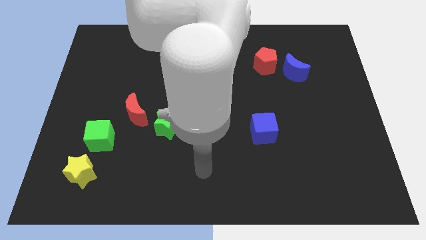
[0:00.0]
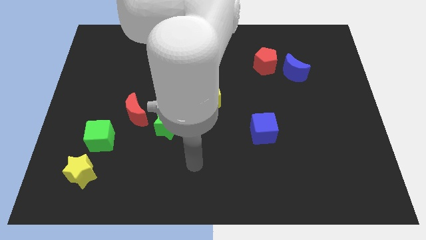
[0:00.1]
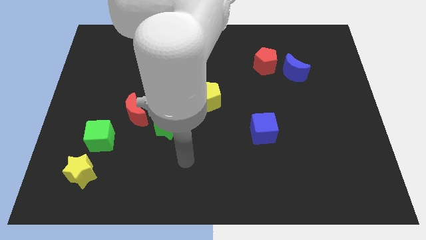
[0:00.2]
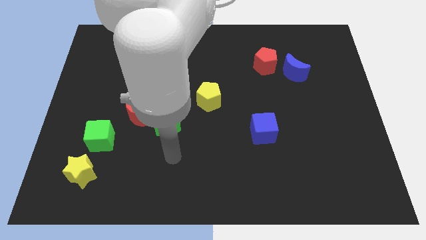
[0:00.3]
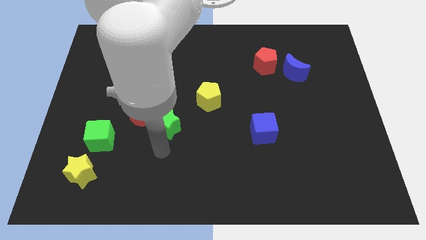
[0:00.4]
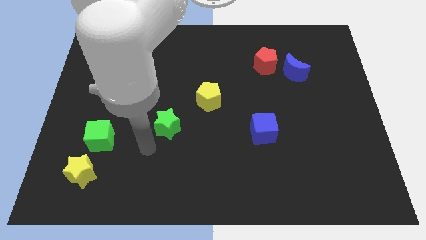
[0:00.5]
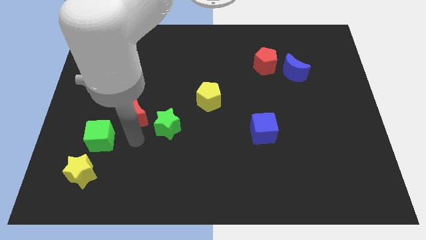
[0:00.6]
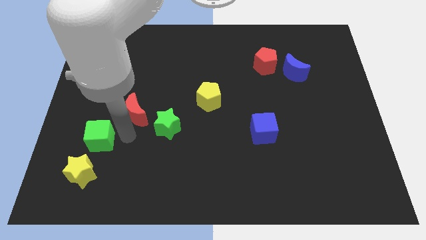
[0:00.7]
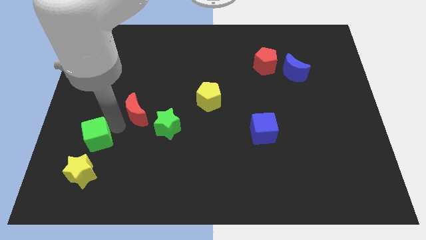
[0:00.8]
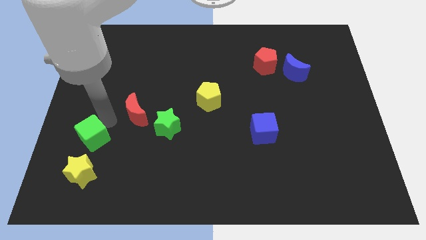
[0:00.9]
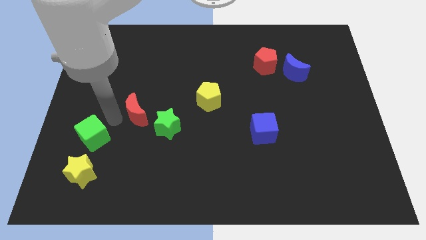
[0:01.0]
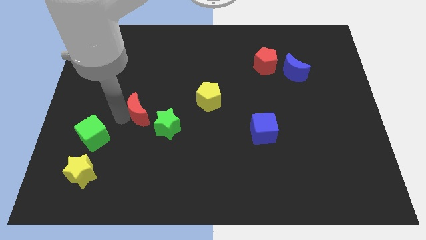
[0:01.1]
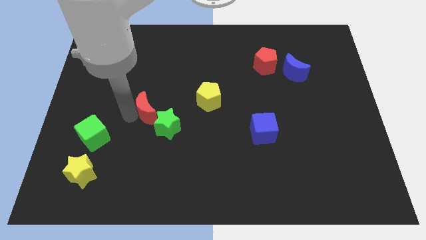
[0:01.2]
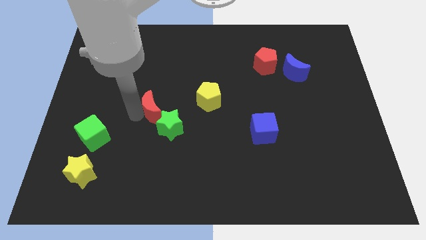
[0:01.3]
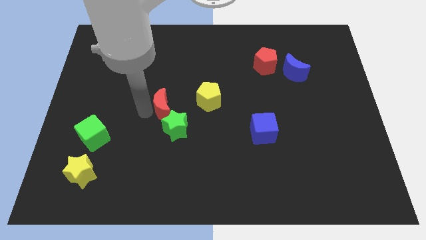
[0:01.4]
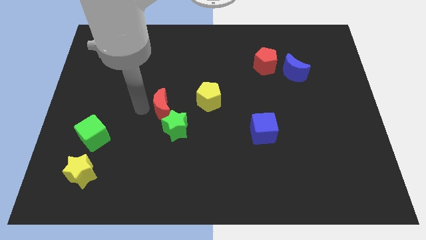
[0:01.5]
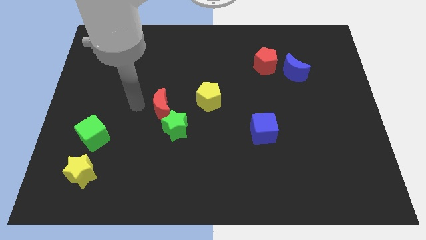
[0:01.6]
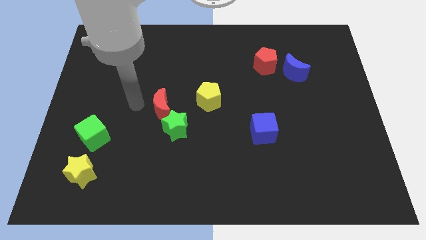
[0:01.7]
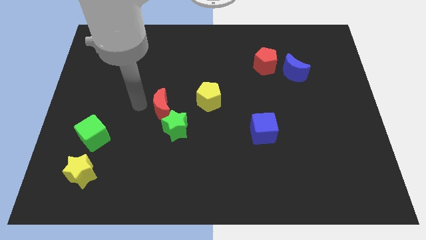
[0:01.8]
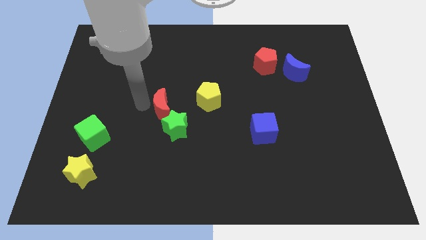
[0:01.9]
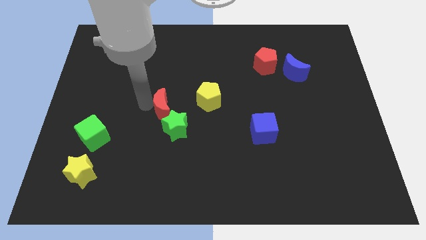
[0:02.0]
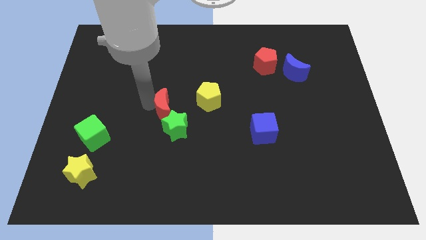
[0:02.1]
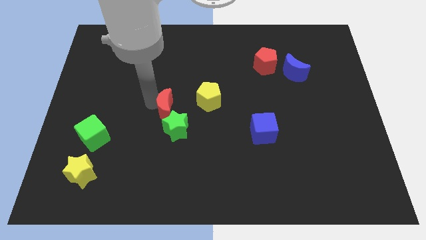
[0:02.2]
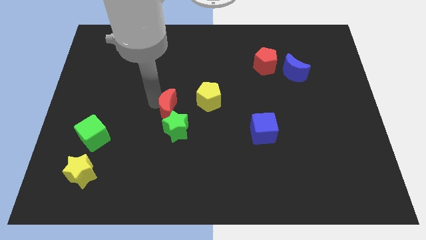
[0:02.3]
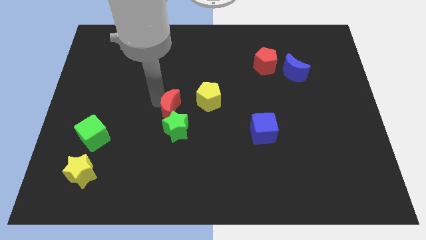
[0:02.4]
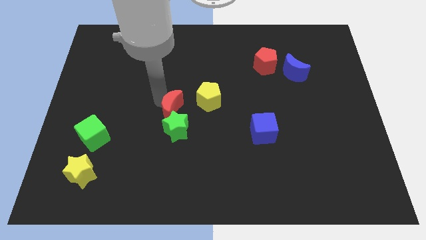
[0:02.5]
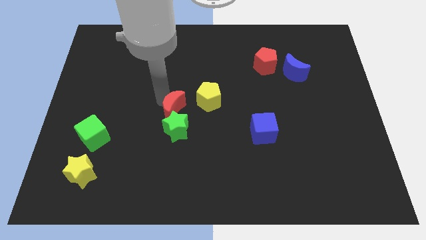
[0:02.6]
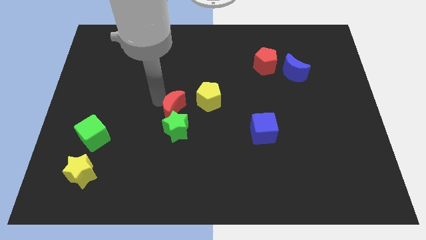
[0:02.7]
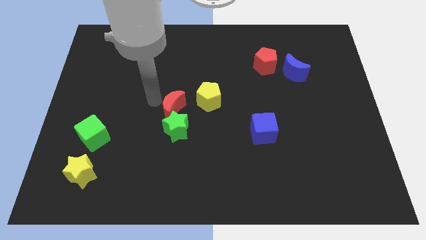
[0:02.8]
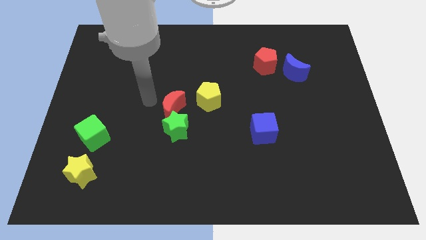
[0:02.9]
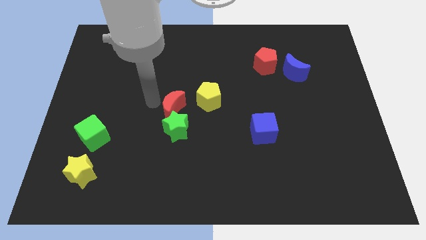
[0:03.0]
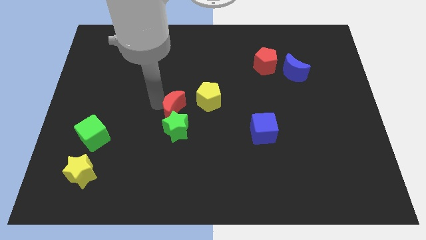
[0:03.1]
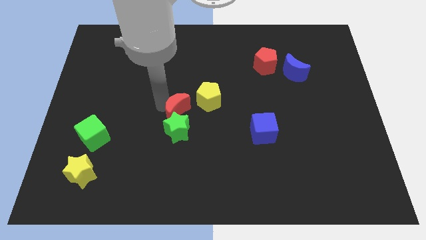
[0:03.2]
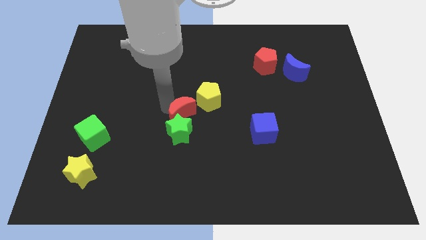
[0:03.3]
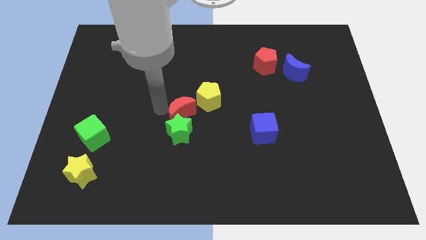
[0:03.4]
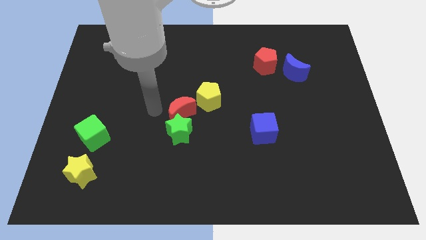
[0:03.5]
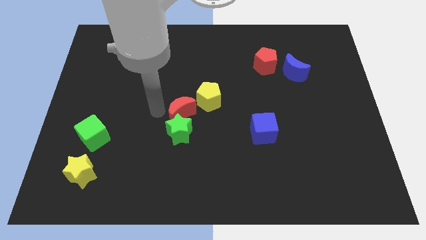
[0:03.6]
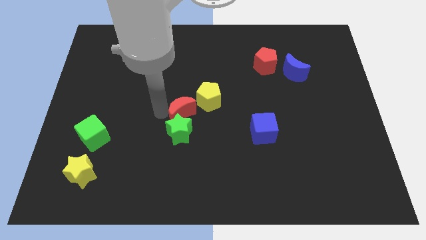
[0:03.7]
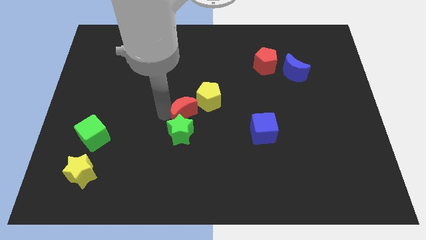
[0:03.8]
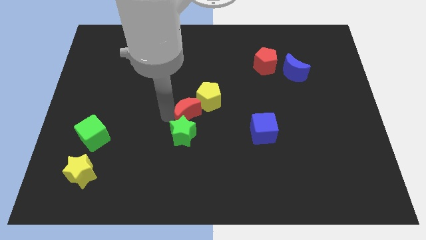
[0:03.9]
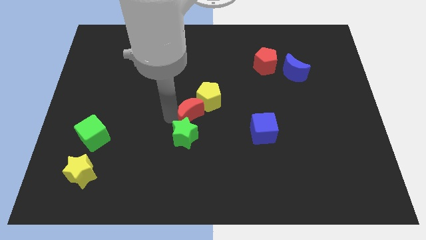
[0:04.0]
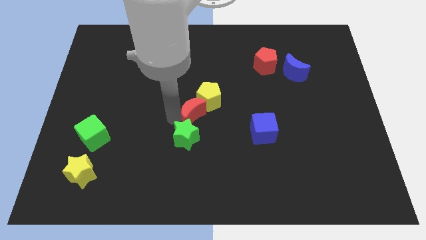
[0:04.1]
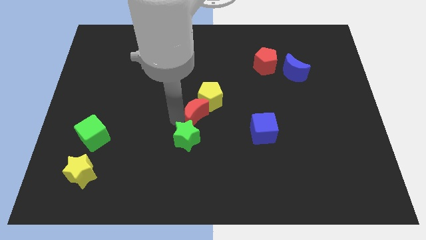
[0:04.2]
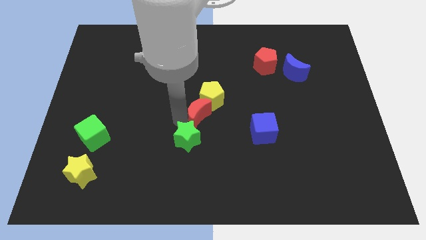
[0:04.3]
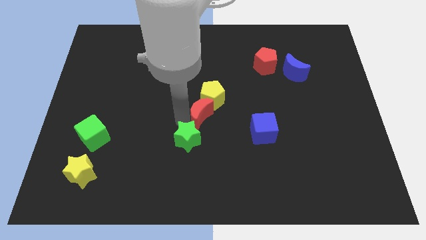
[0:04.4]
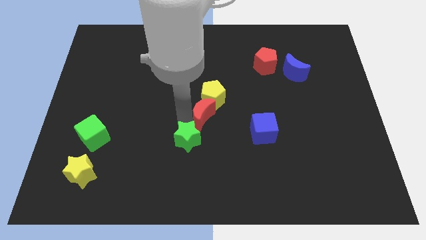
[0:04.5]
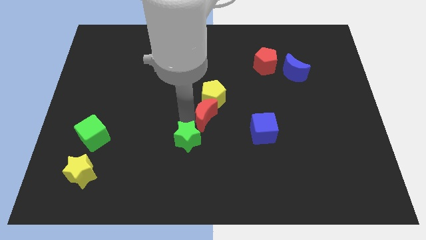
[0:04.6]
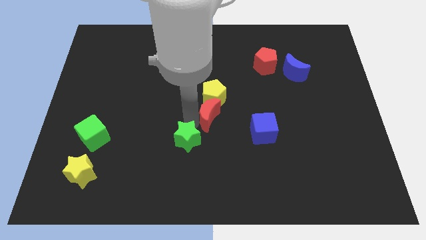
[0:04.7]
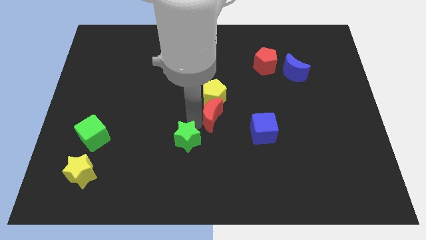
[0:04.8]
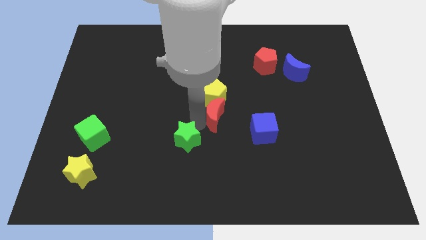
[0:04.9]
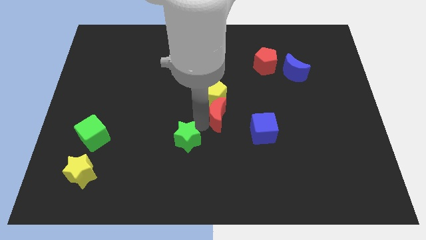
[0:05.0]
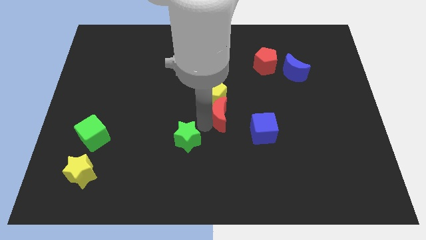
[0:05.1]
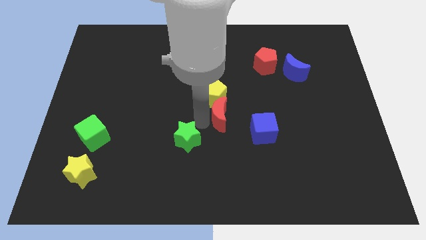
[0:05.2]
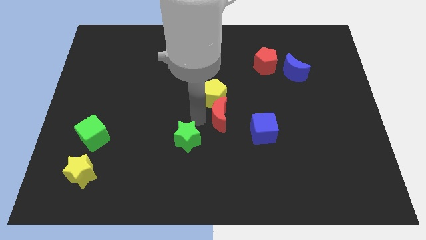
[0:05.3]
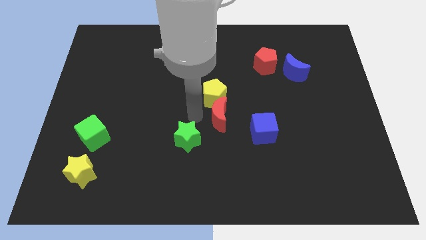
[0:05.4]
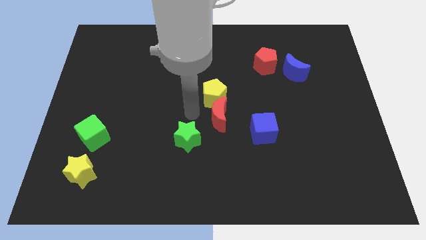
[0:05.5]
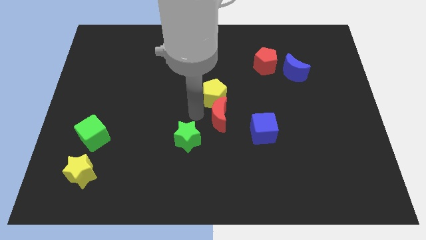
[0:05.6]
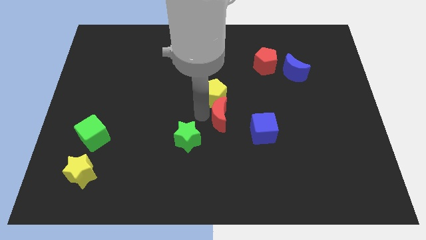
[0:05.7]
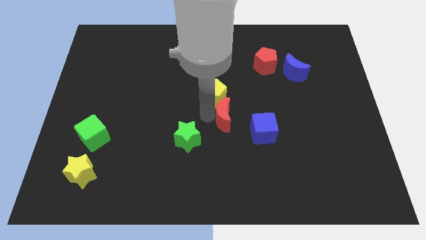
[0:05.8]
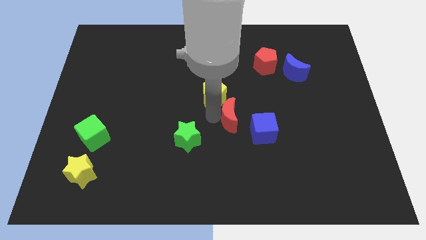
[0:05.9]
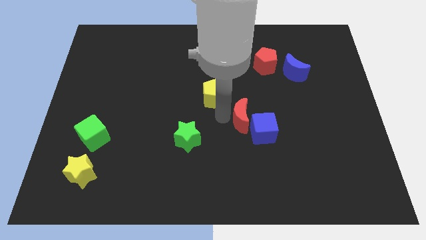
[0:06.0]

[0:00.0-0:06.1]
move the red moon towards the blue cube

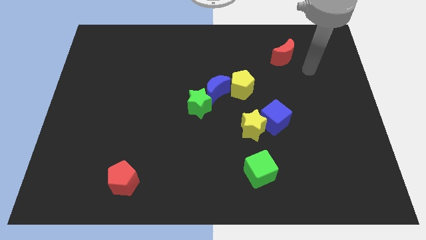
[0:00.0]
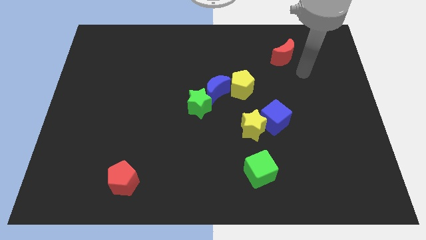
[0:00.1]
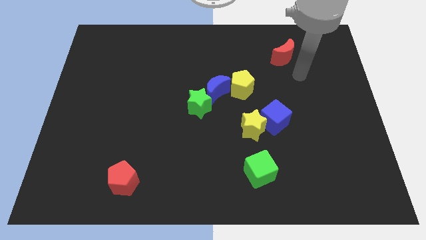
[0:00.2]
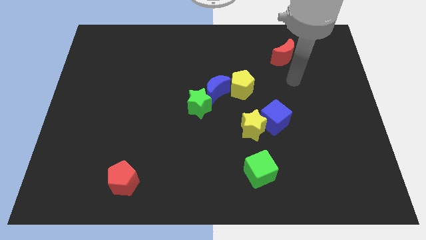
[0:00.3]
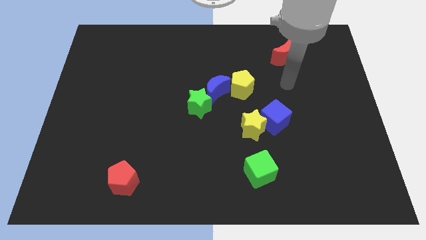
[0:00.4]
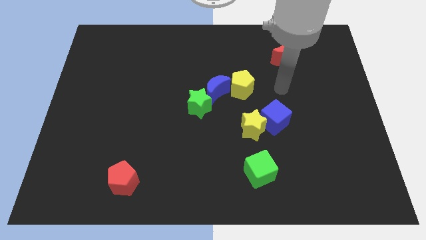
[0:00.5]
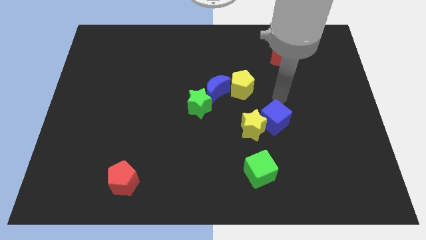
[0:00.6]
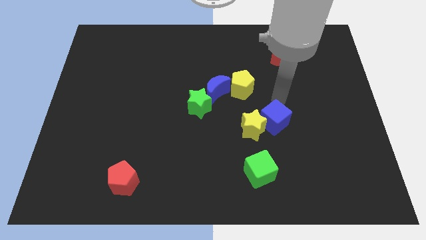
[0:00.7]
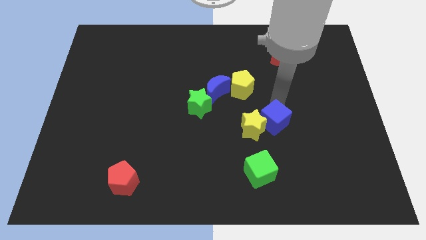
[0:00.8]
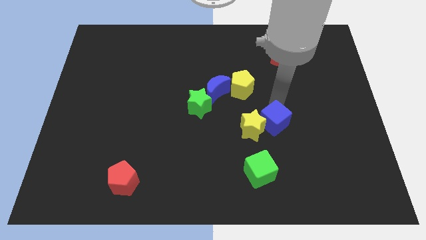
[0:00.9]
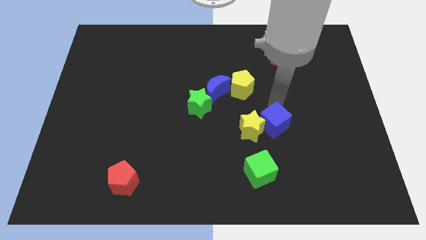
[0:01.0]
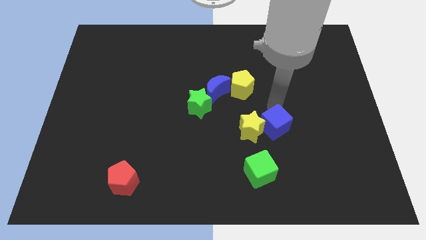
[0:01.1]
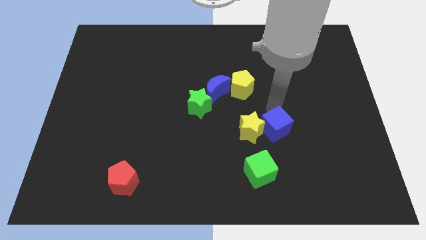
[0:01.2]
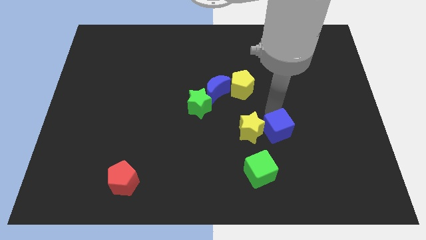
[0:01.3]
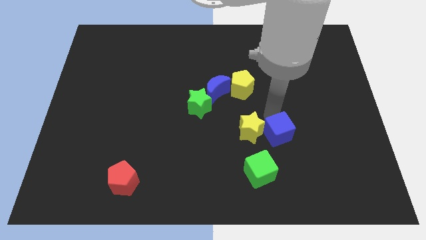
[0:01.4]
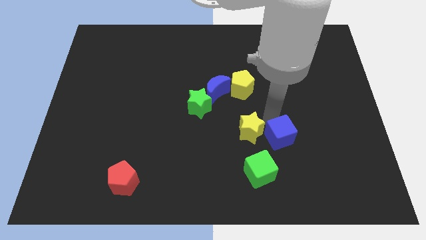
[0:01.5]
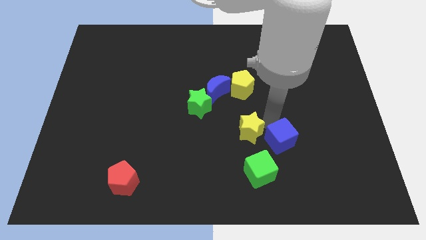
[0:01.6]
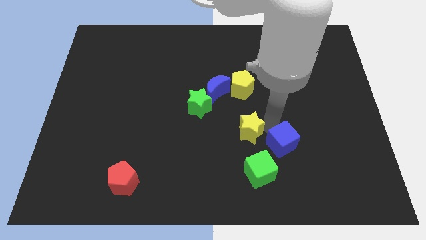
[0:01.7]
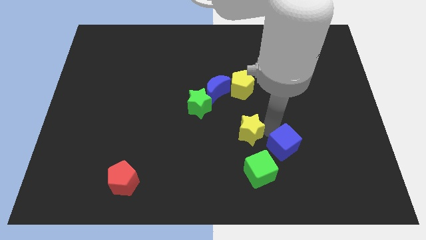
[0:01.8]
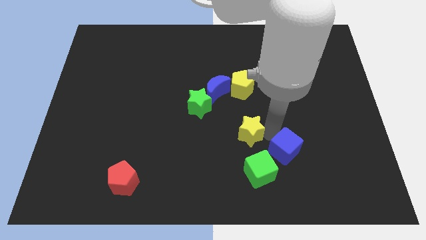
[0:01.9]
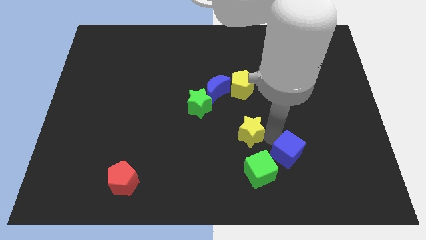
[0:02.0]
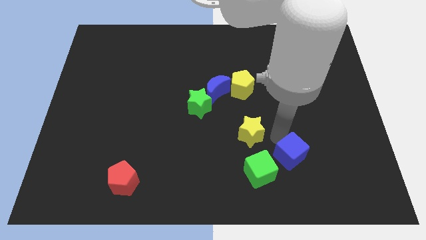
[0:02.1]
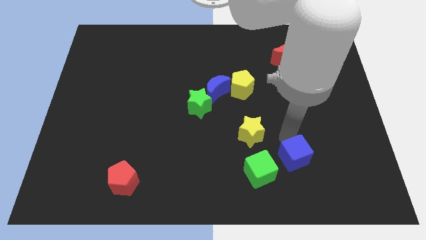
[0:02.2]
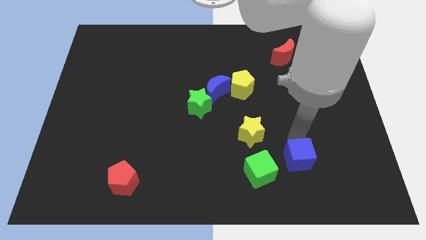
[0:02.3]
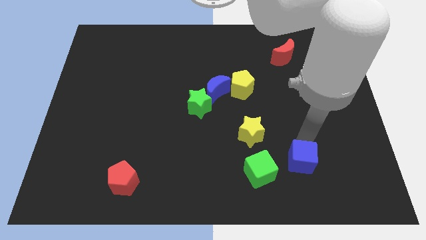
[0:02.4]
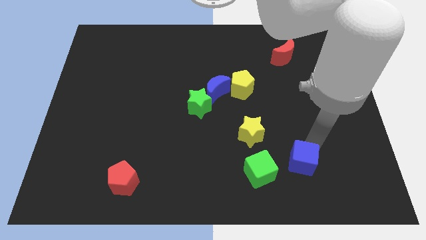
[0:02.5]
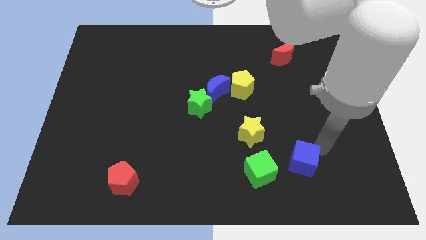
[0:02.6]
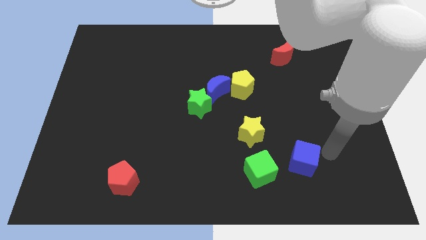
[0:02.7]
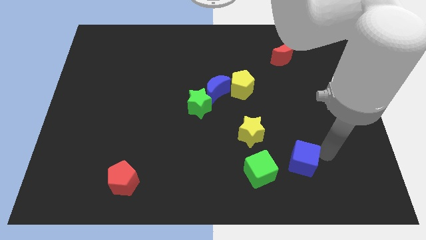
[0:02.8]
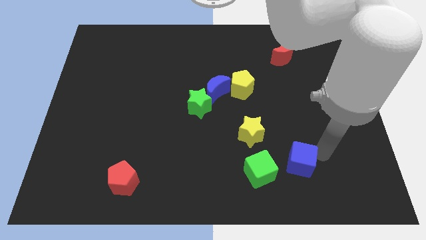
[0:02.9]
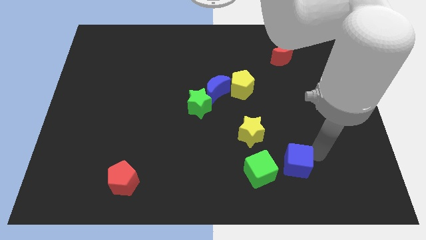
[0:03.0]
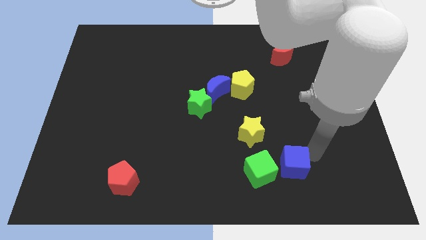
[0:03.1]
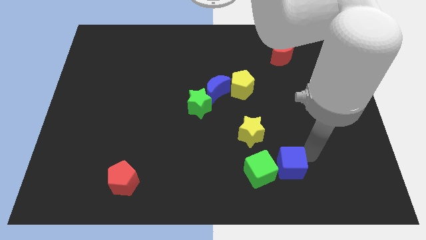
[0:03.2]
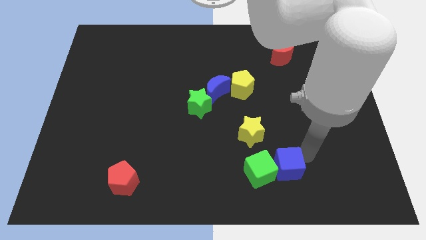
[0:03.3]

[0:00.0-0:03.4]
slide the blue cube to the green cube
